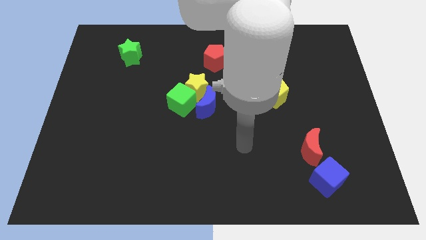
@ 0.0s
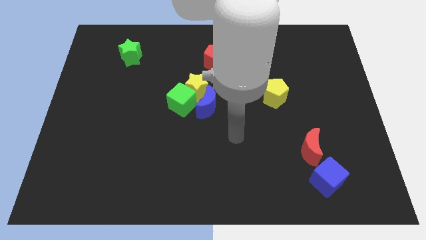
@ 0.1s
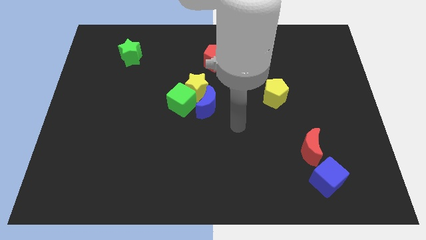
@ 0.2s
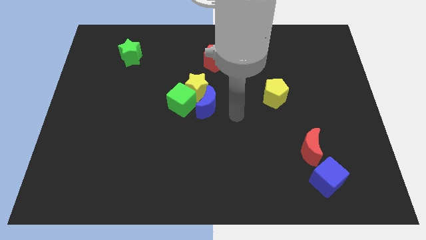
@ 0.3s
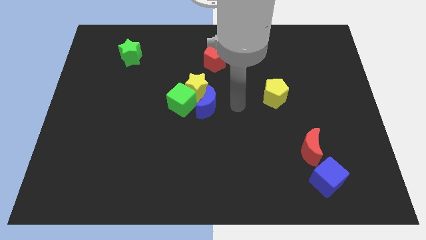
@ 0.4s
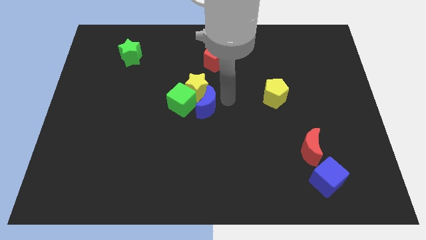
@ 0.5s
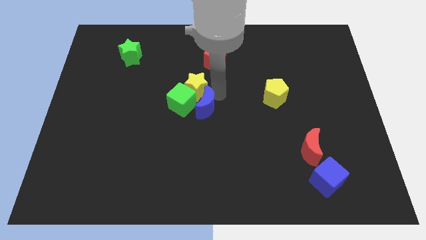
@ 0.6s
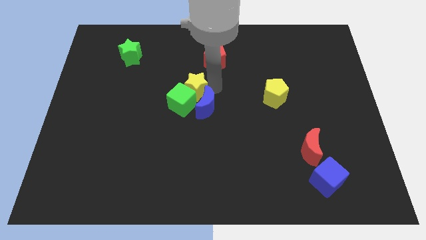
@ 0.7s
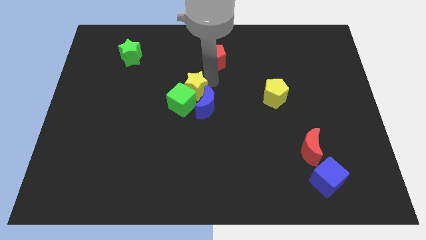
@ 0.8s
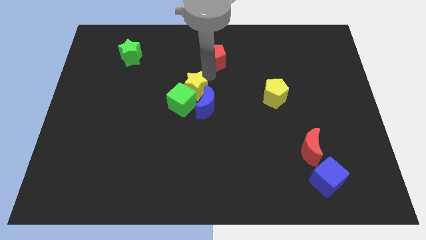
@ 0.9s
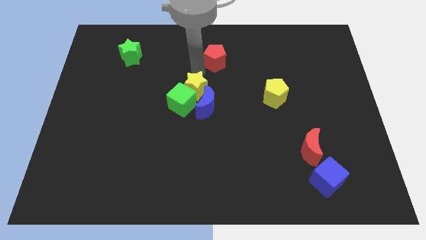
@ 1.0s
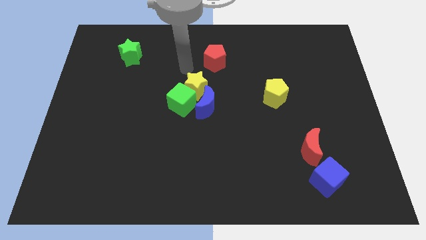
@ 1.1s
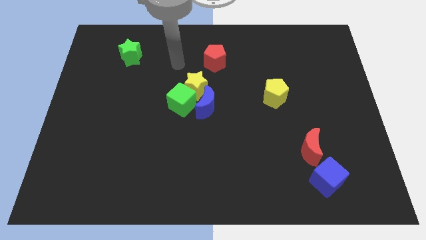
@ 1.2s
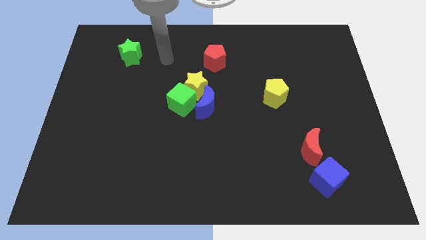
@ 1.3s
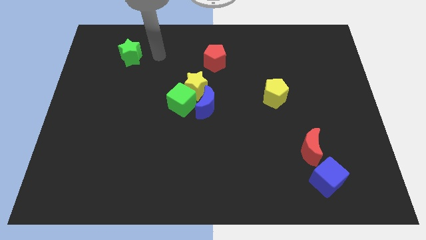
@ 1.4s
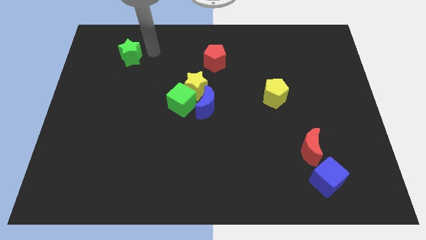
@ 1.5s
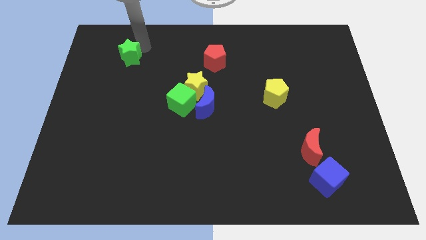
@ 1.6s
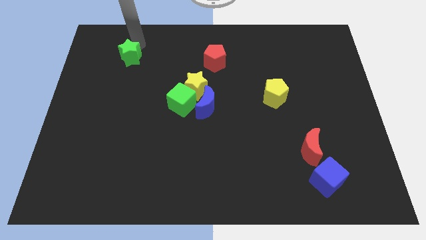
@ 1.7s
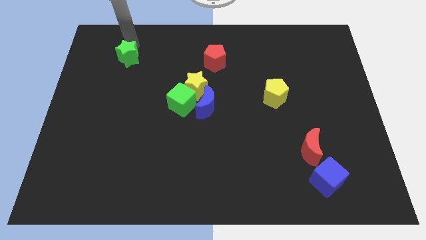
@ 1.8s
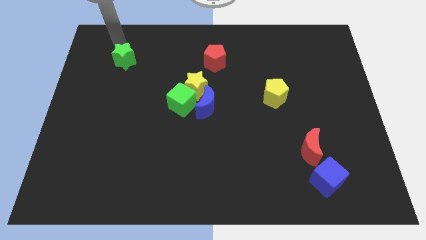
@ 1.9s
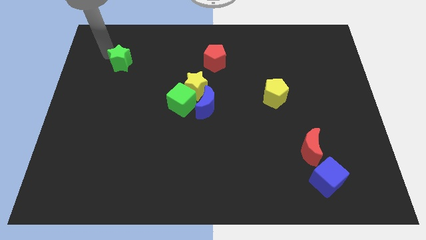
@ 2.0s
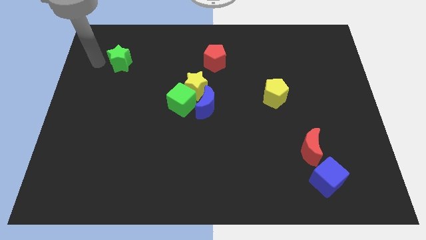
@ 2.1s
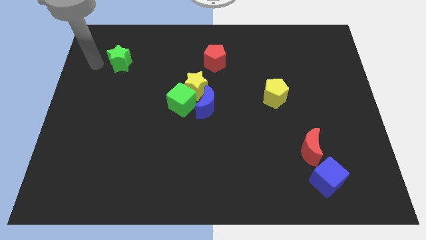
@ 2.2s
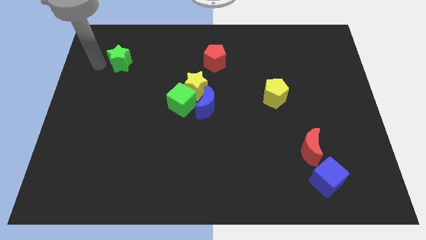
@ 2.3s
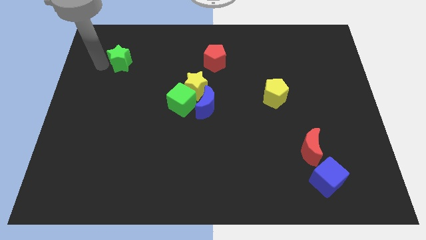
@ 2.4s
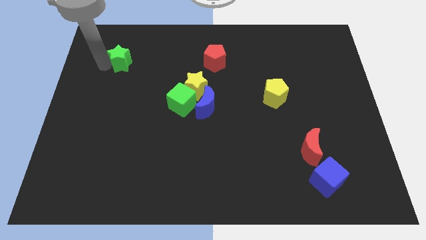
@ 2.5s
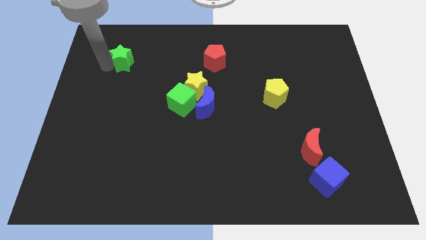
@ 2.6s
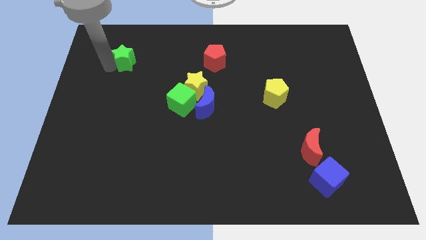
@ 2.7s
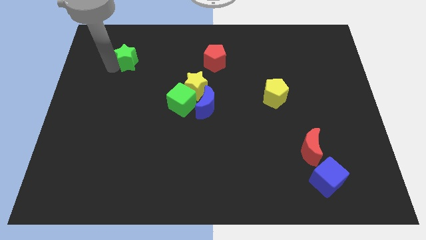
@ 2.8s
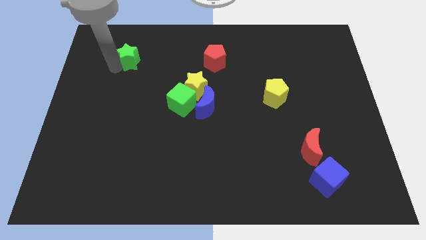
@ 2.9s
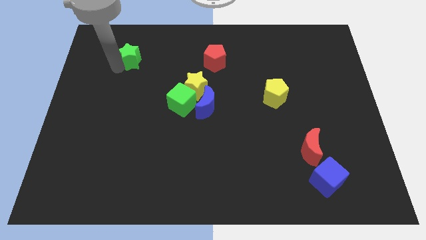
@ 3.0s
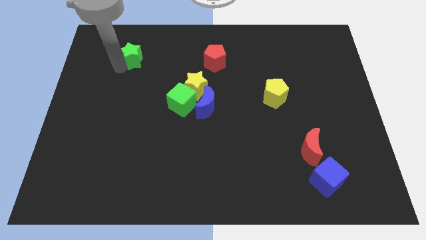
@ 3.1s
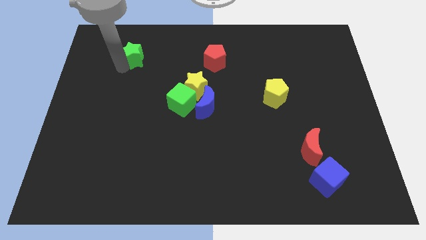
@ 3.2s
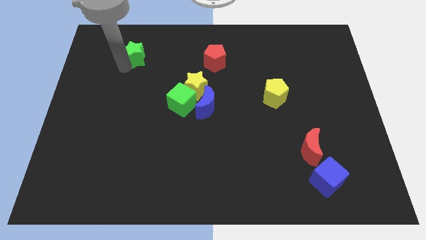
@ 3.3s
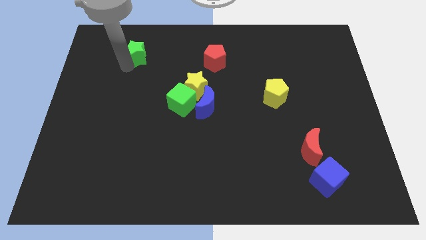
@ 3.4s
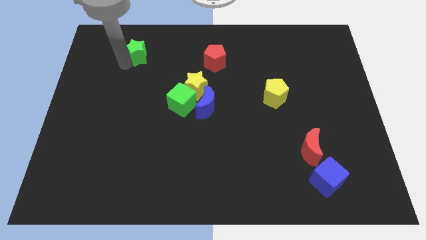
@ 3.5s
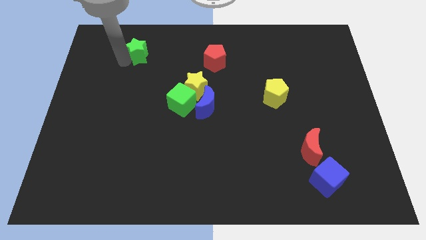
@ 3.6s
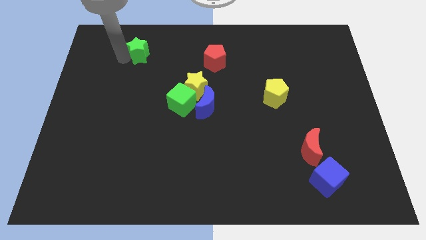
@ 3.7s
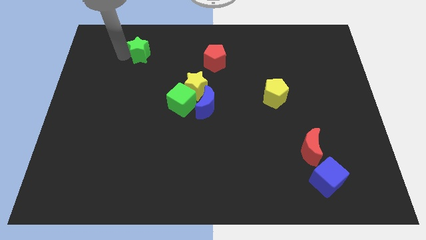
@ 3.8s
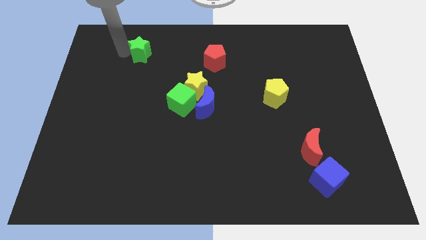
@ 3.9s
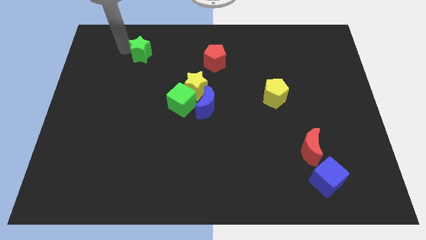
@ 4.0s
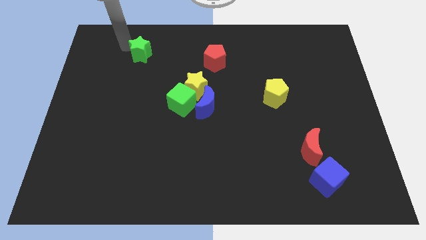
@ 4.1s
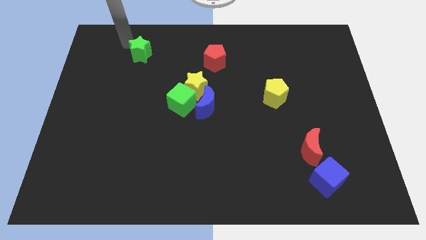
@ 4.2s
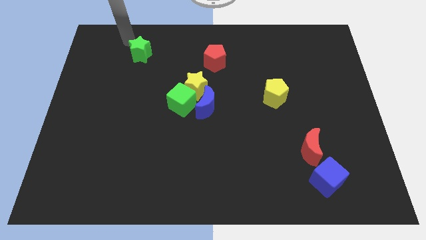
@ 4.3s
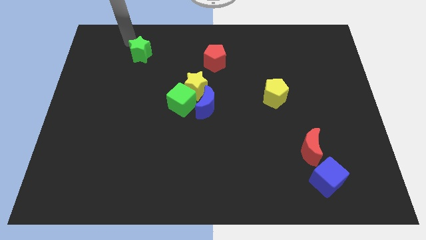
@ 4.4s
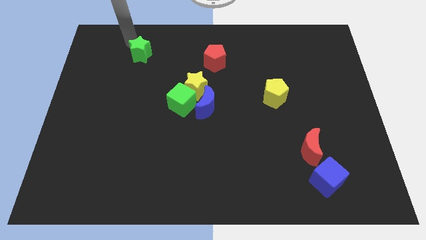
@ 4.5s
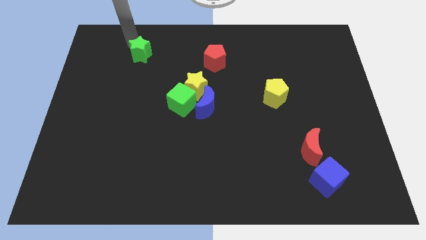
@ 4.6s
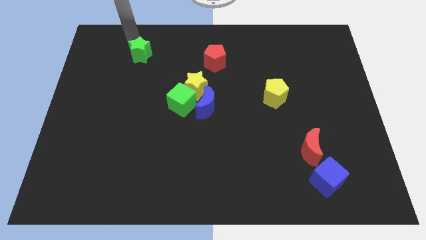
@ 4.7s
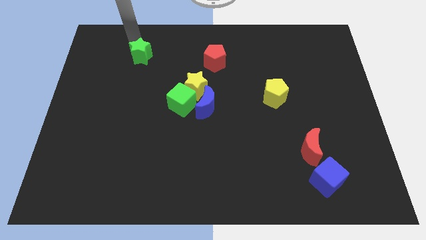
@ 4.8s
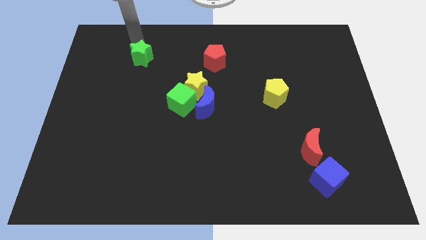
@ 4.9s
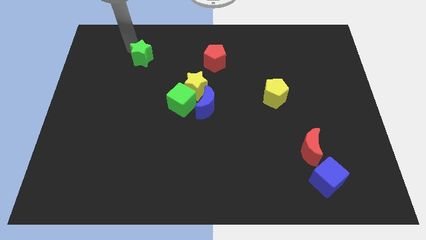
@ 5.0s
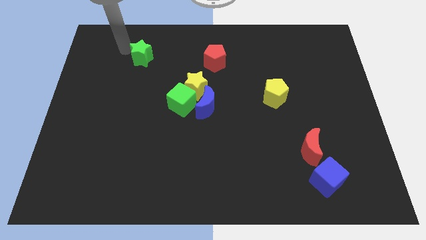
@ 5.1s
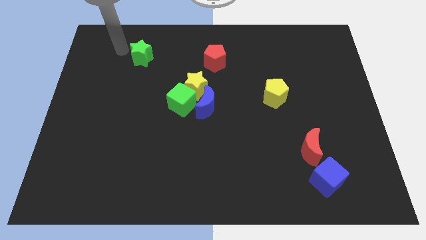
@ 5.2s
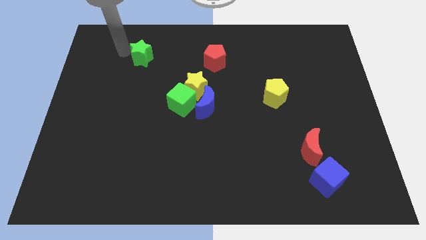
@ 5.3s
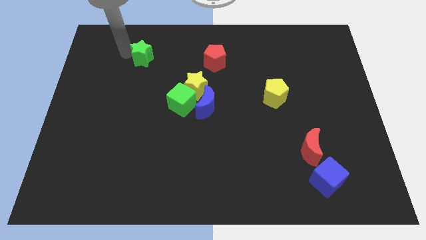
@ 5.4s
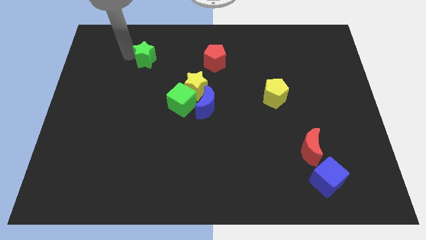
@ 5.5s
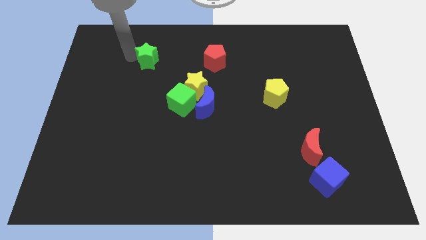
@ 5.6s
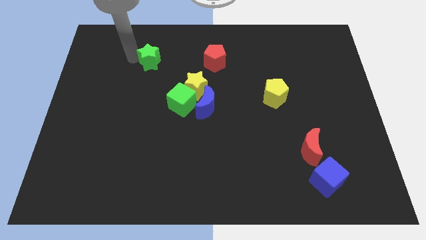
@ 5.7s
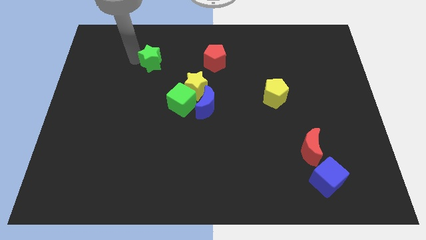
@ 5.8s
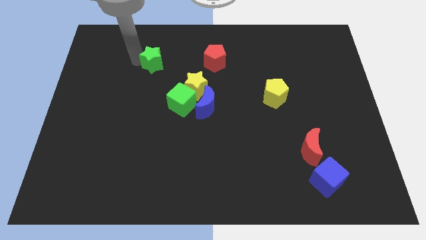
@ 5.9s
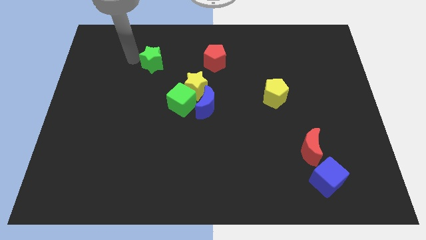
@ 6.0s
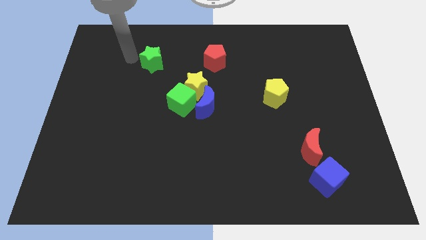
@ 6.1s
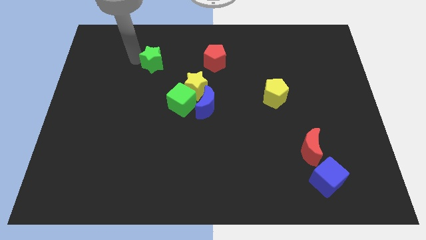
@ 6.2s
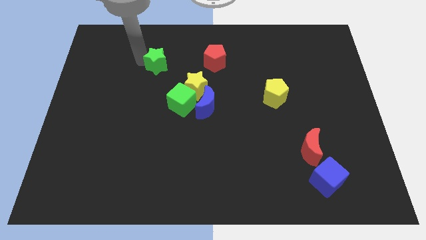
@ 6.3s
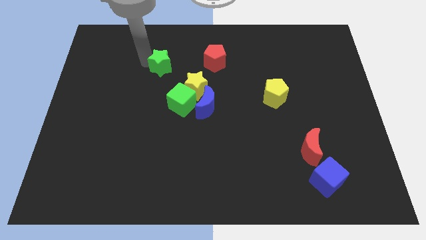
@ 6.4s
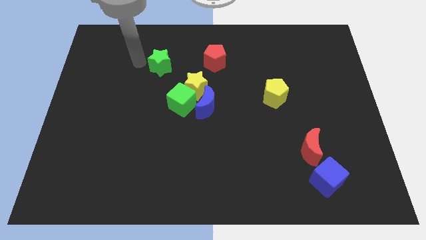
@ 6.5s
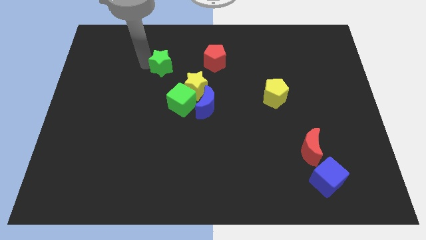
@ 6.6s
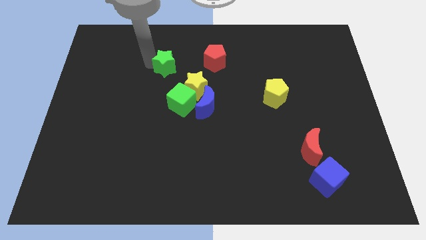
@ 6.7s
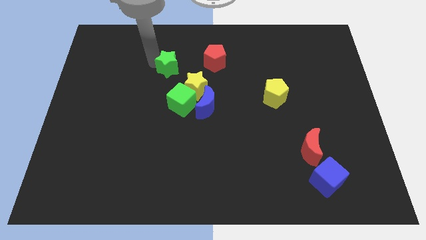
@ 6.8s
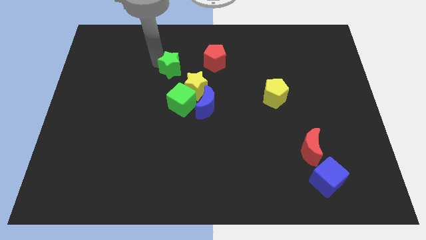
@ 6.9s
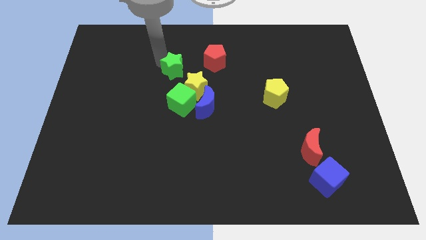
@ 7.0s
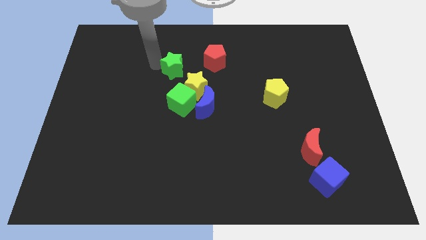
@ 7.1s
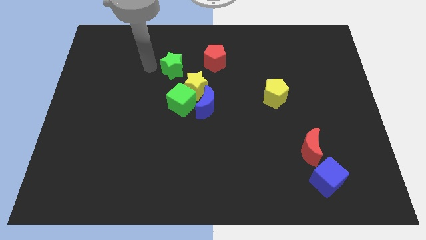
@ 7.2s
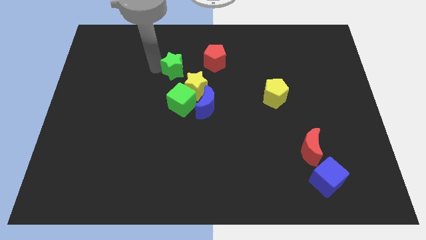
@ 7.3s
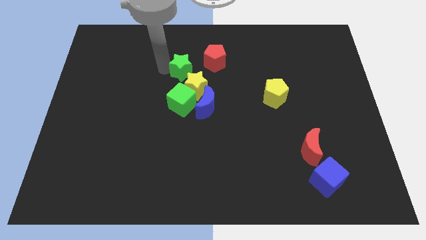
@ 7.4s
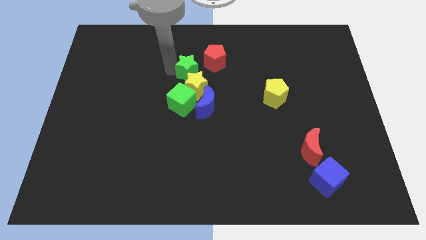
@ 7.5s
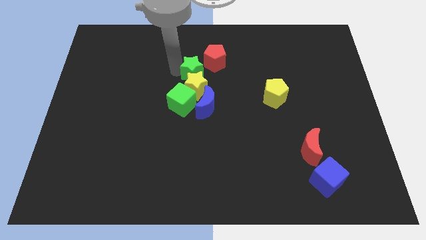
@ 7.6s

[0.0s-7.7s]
slide the green star to the top right of the yellow star
